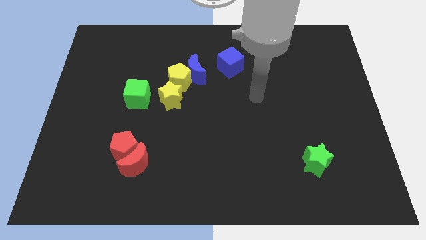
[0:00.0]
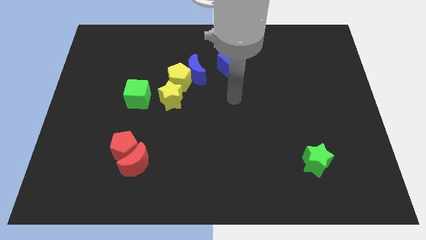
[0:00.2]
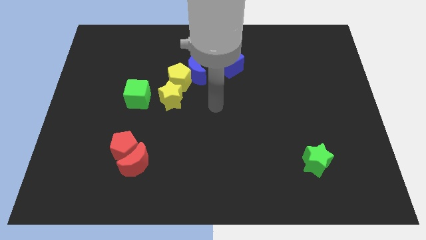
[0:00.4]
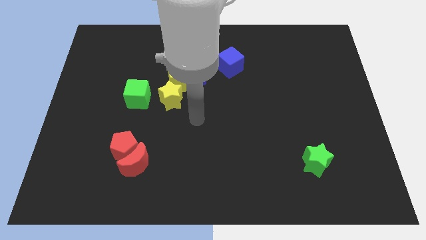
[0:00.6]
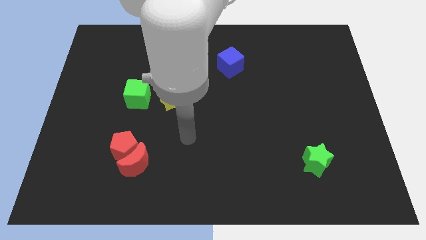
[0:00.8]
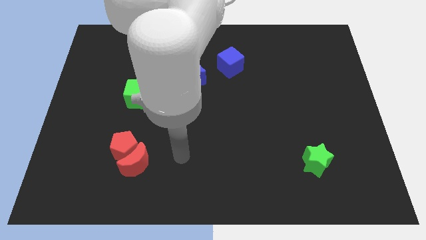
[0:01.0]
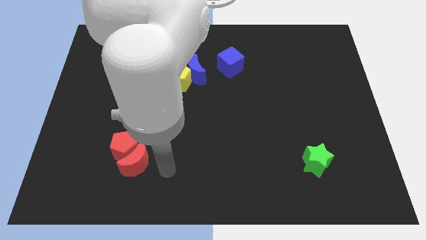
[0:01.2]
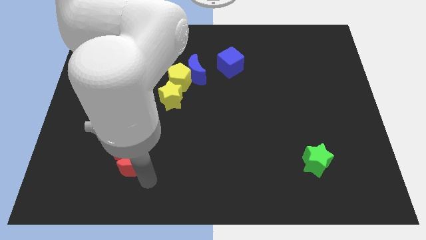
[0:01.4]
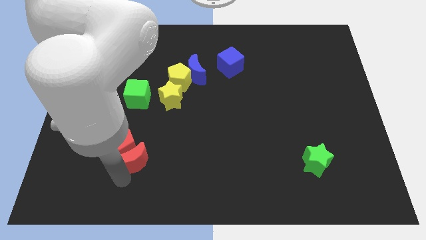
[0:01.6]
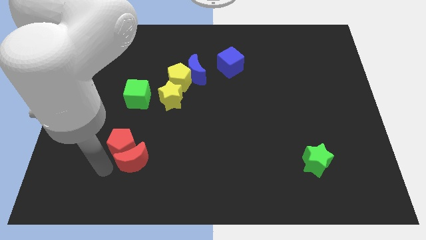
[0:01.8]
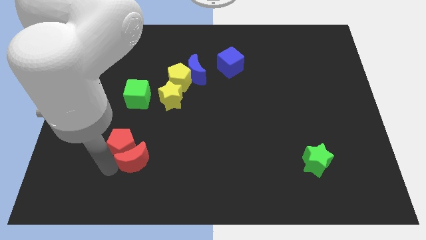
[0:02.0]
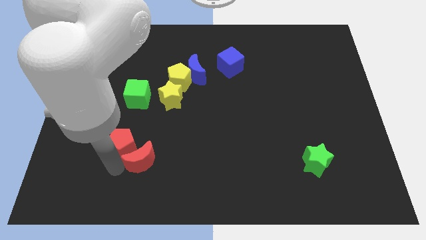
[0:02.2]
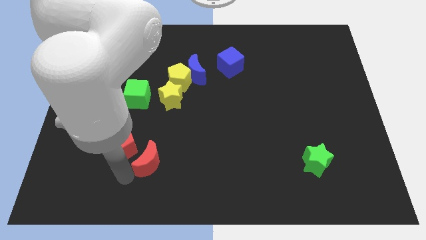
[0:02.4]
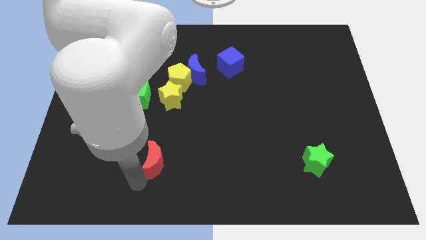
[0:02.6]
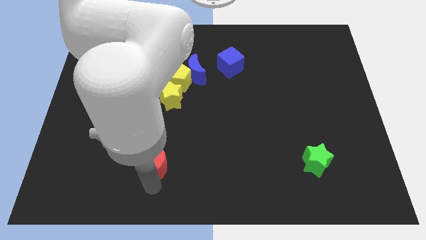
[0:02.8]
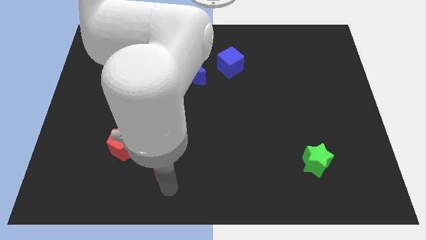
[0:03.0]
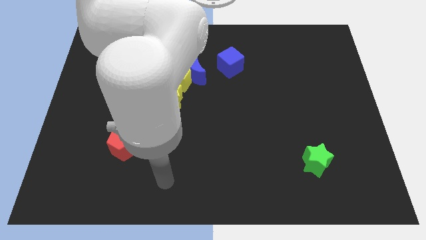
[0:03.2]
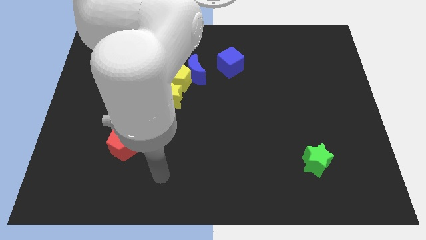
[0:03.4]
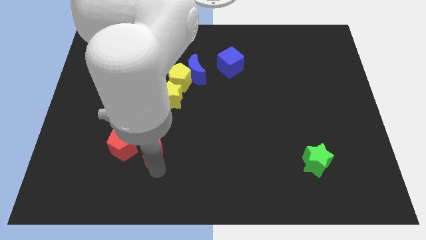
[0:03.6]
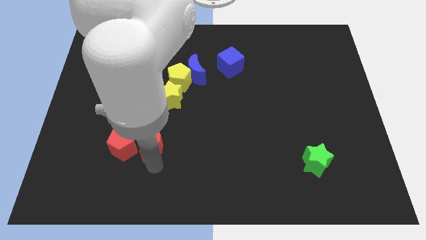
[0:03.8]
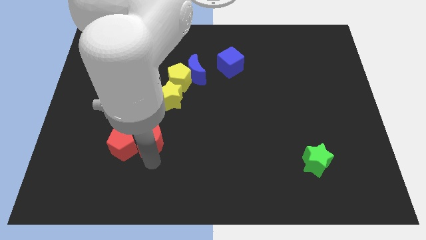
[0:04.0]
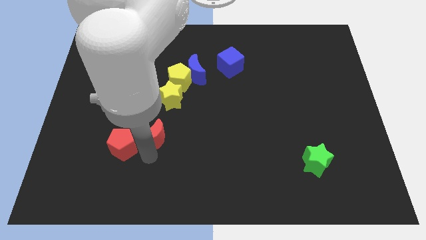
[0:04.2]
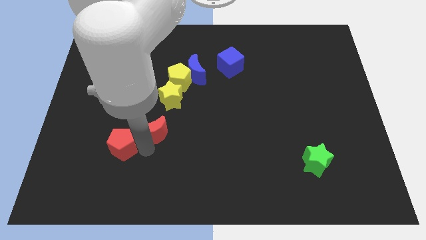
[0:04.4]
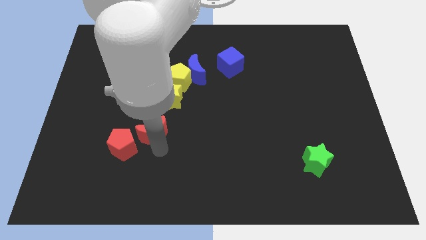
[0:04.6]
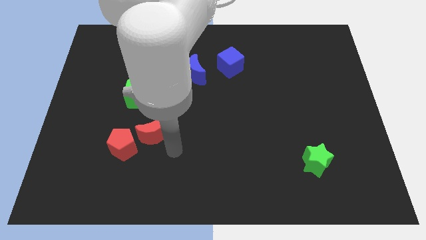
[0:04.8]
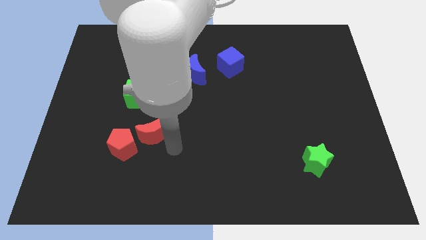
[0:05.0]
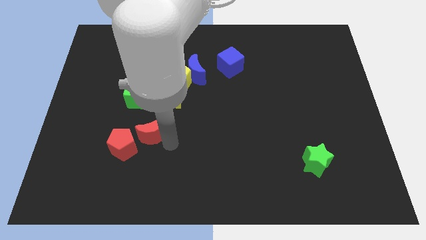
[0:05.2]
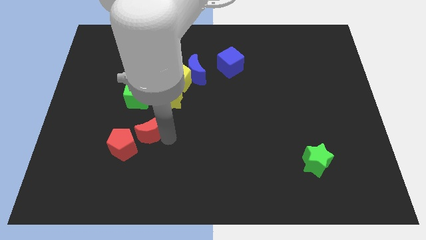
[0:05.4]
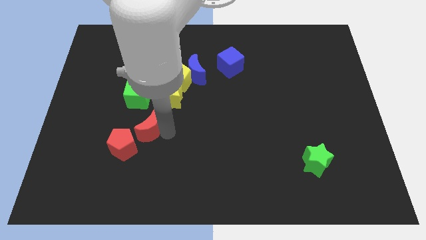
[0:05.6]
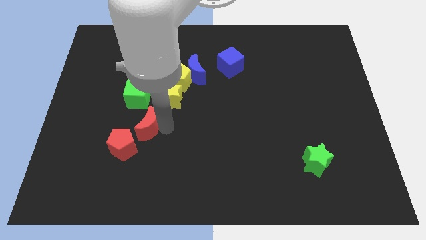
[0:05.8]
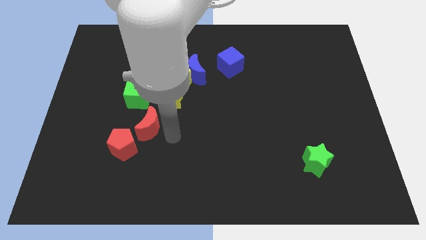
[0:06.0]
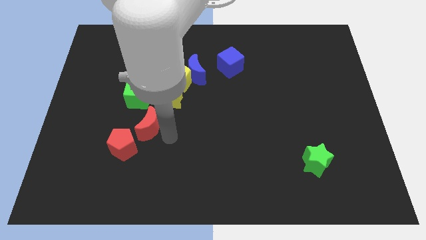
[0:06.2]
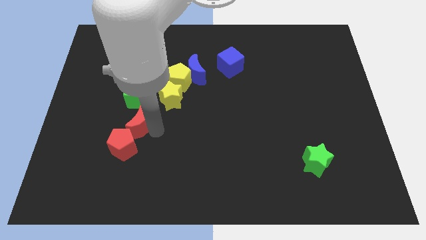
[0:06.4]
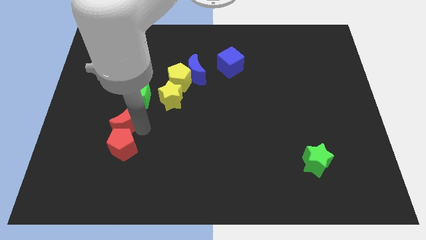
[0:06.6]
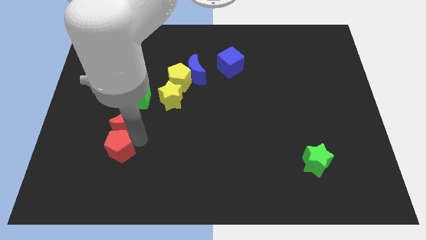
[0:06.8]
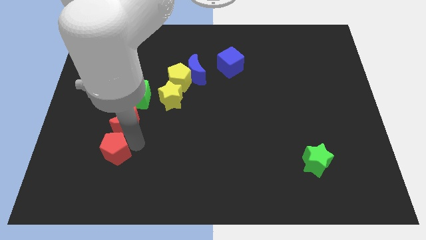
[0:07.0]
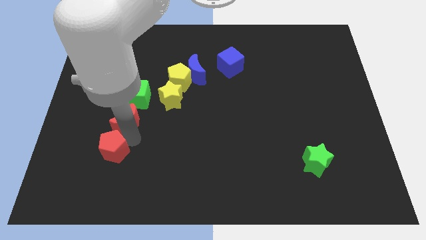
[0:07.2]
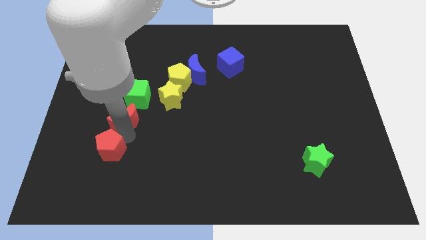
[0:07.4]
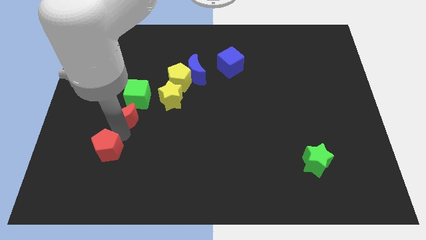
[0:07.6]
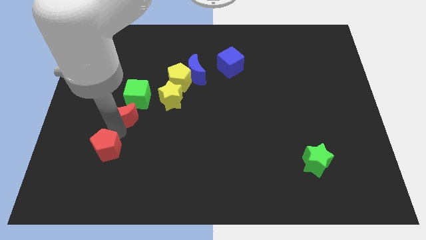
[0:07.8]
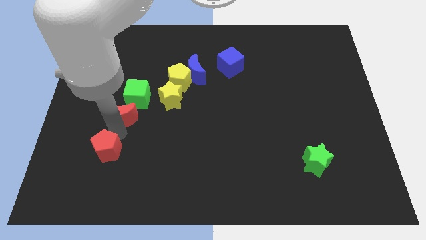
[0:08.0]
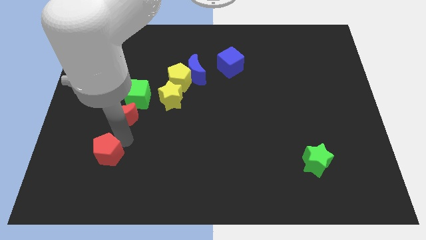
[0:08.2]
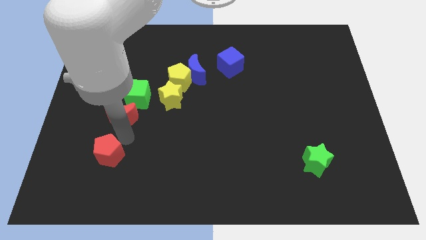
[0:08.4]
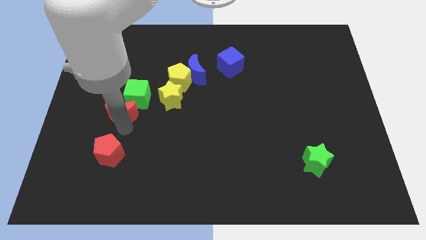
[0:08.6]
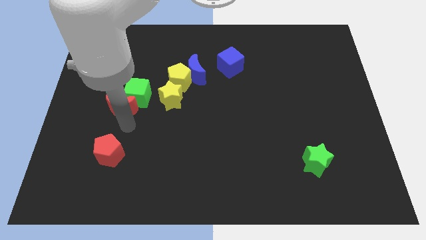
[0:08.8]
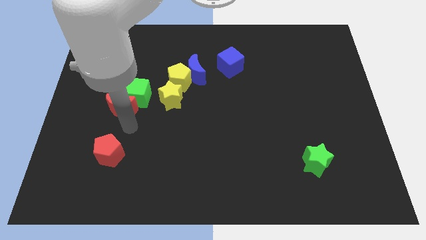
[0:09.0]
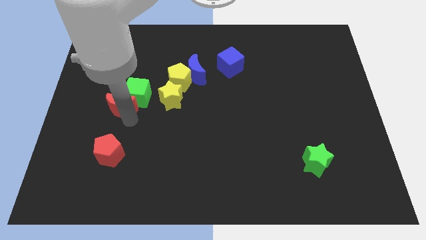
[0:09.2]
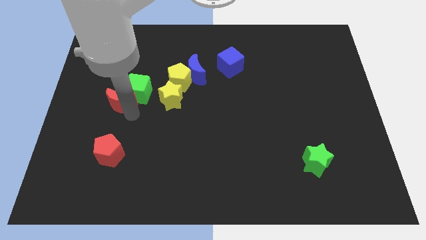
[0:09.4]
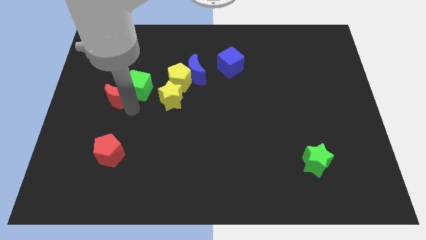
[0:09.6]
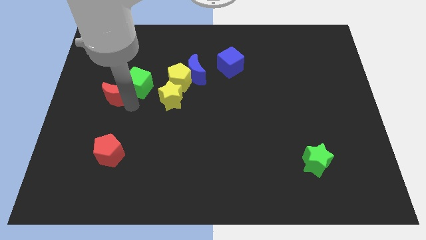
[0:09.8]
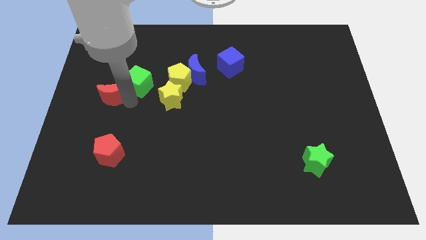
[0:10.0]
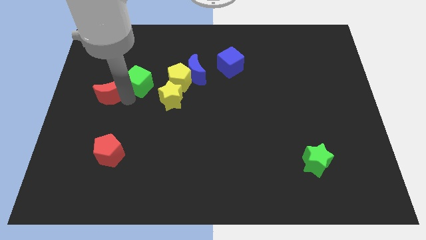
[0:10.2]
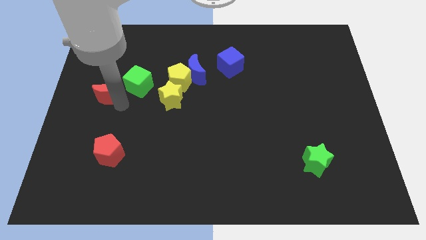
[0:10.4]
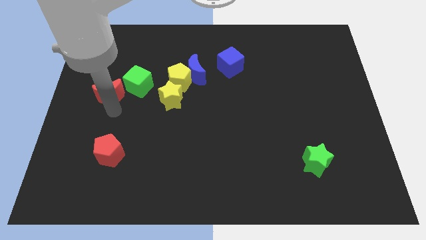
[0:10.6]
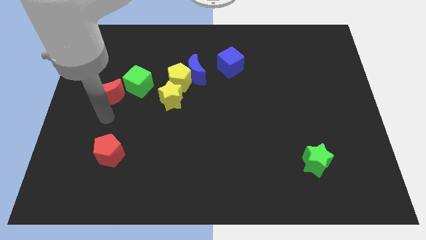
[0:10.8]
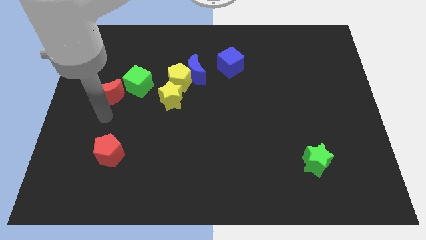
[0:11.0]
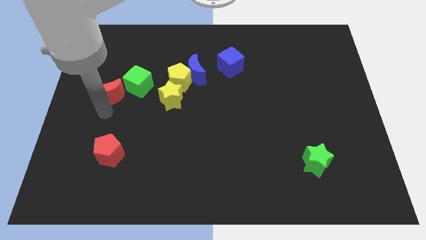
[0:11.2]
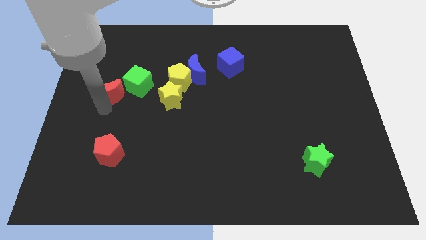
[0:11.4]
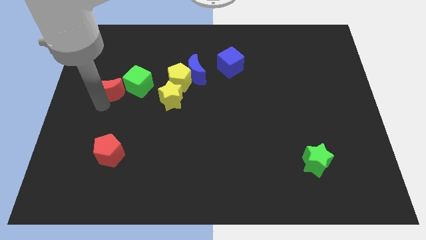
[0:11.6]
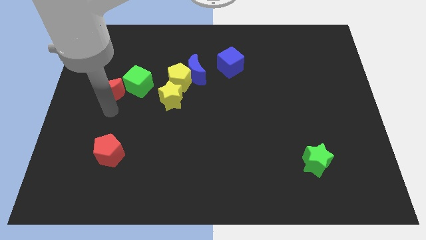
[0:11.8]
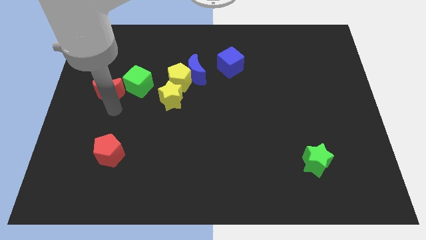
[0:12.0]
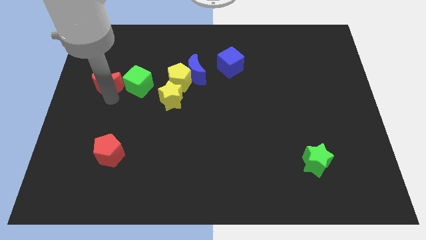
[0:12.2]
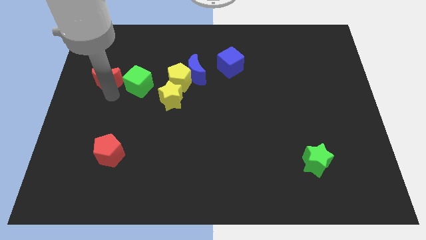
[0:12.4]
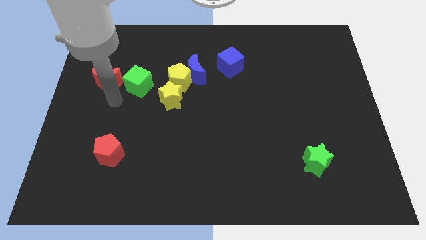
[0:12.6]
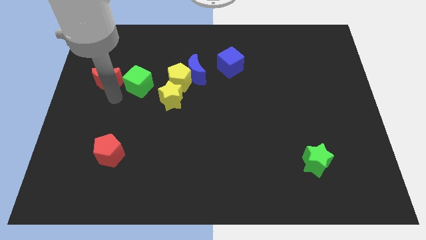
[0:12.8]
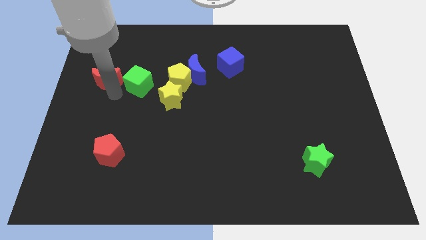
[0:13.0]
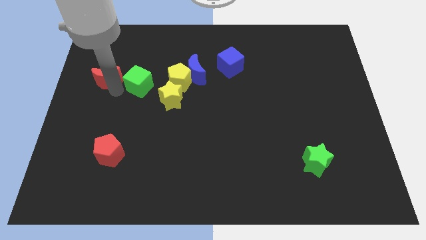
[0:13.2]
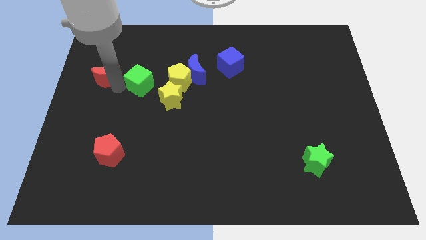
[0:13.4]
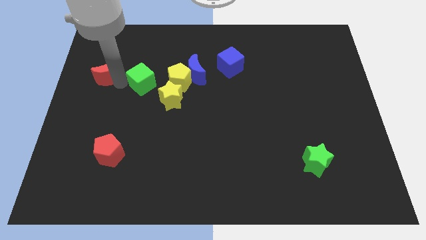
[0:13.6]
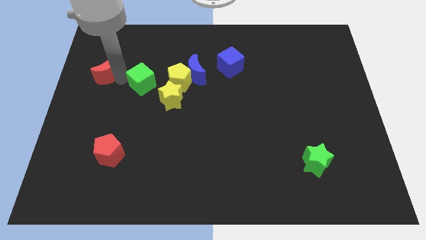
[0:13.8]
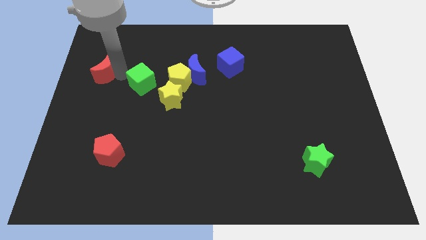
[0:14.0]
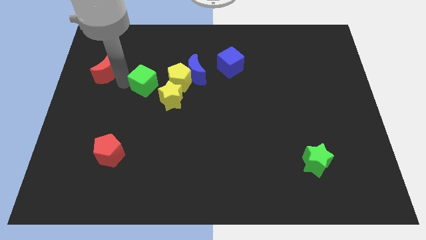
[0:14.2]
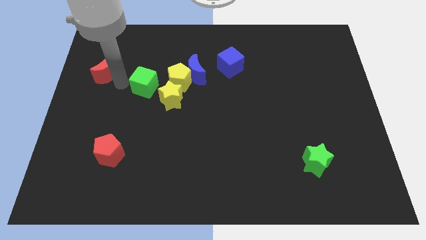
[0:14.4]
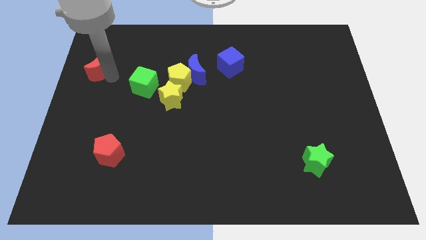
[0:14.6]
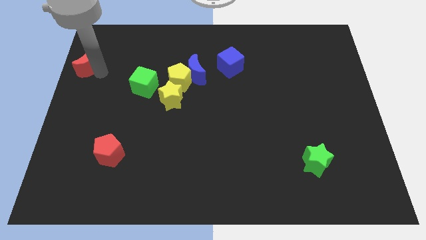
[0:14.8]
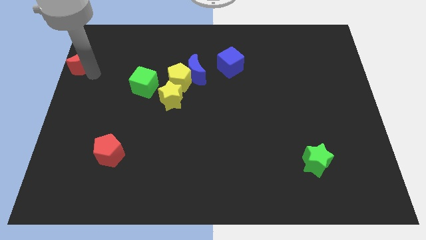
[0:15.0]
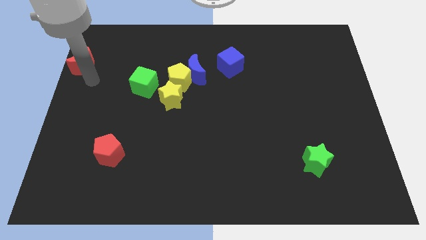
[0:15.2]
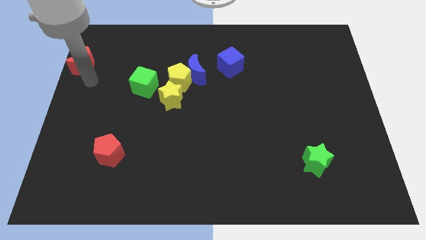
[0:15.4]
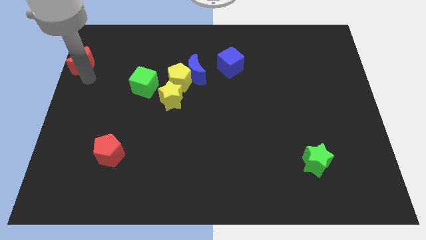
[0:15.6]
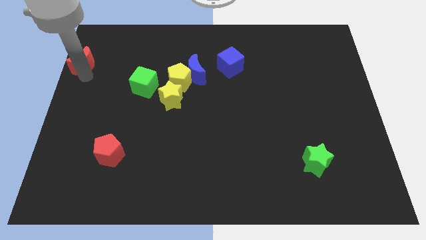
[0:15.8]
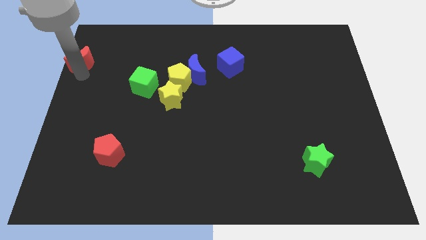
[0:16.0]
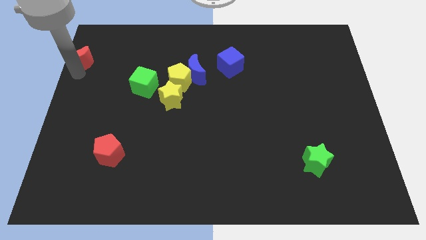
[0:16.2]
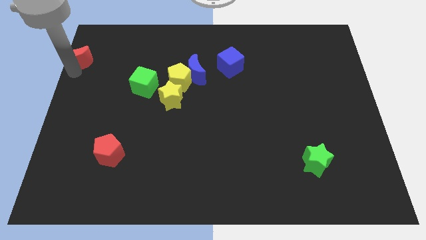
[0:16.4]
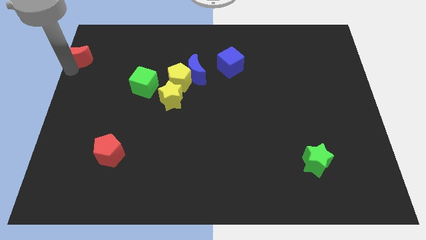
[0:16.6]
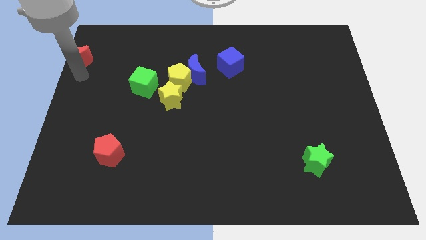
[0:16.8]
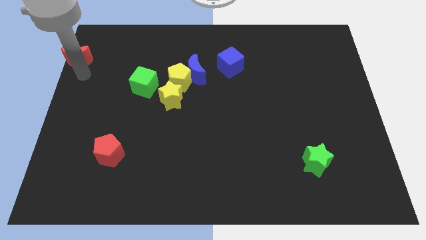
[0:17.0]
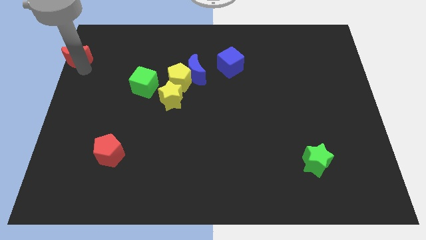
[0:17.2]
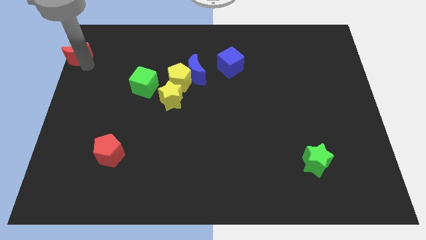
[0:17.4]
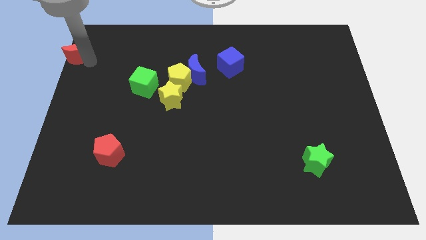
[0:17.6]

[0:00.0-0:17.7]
push the red moon to the upper left corner
